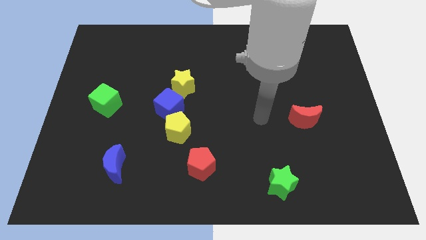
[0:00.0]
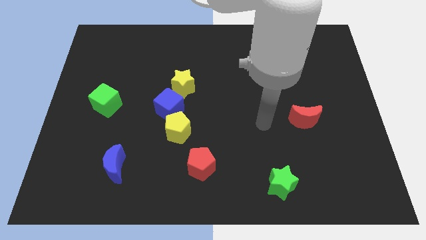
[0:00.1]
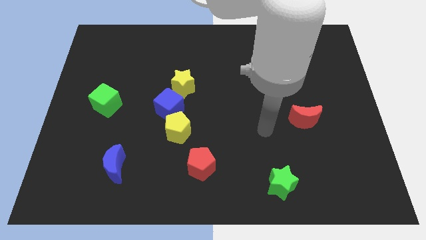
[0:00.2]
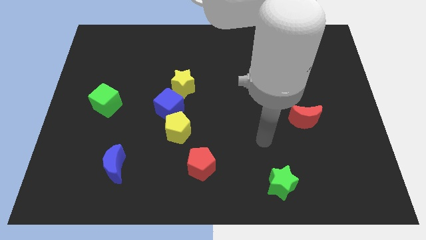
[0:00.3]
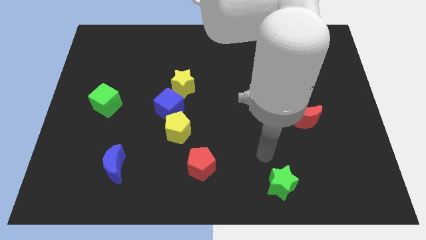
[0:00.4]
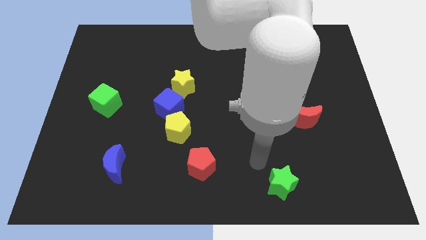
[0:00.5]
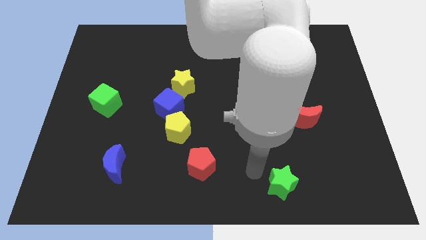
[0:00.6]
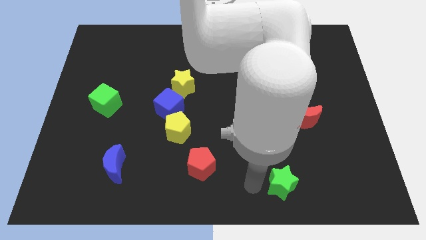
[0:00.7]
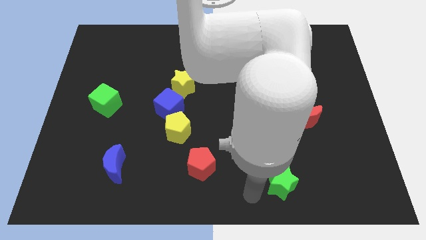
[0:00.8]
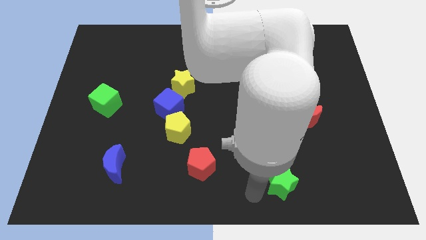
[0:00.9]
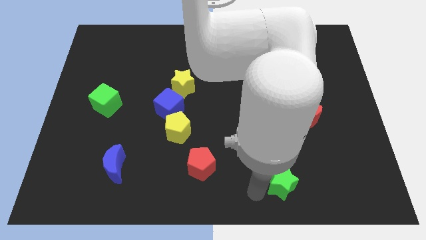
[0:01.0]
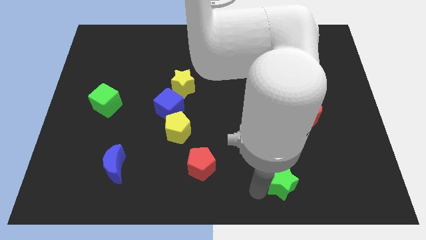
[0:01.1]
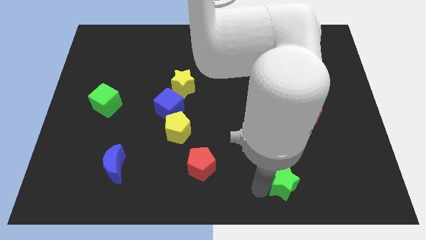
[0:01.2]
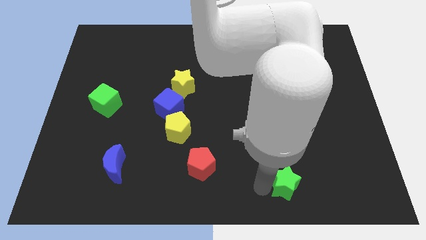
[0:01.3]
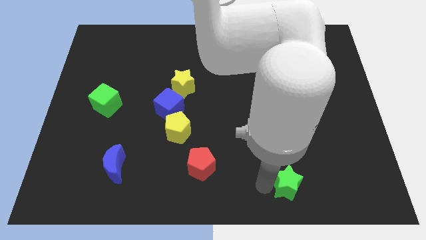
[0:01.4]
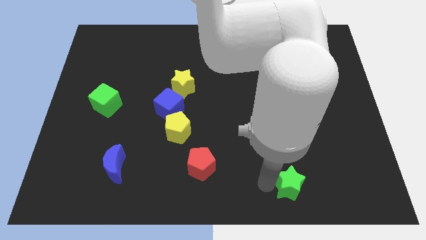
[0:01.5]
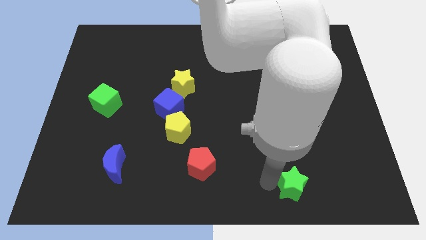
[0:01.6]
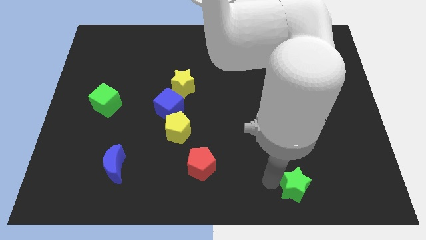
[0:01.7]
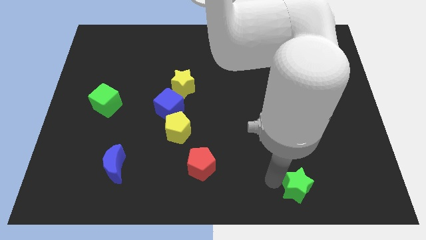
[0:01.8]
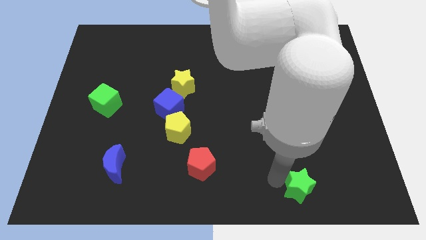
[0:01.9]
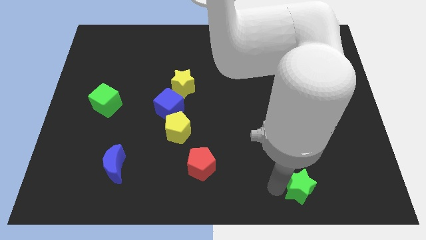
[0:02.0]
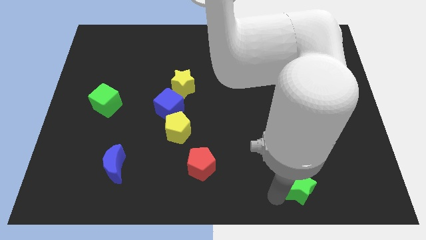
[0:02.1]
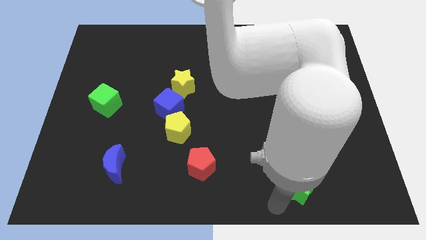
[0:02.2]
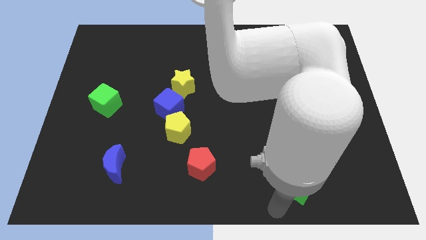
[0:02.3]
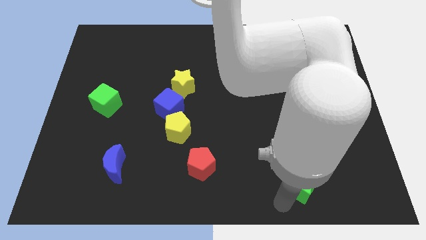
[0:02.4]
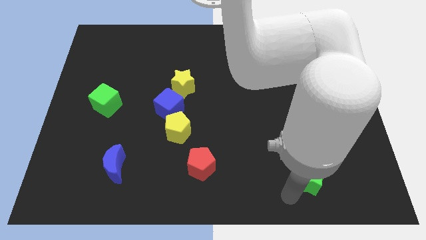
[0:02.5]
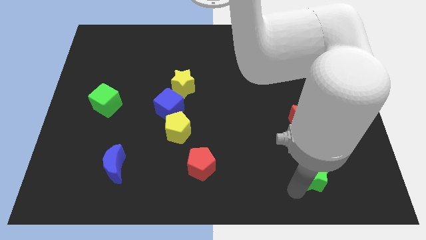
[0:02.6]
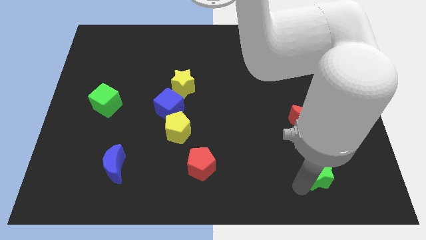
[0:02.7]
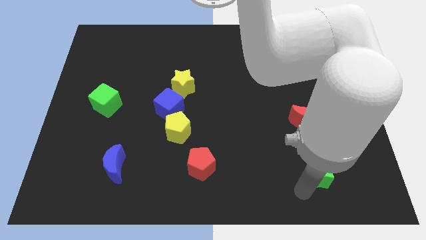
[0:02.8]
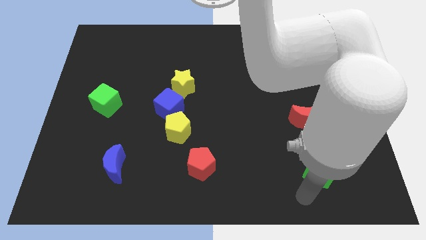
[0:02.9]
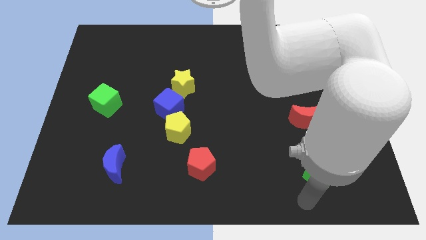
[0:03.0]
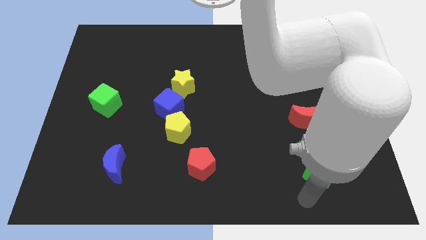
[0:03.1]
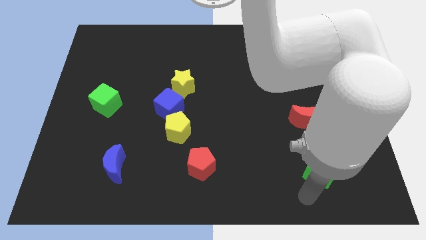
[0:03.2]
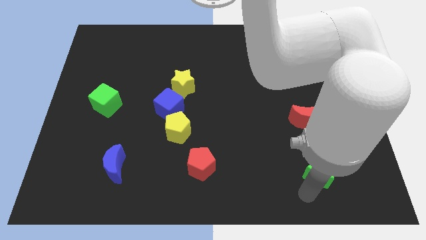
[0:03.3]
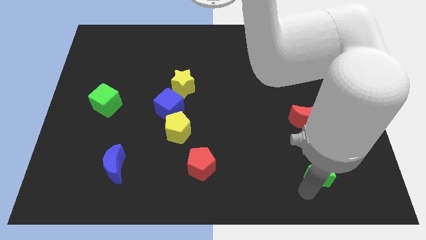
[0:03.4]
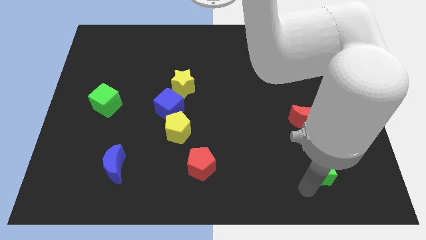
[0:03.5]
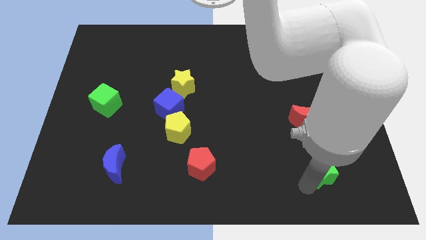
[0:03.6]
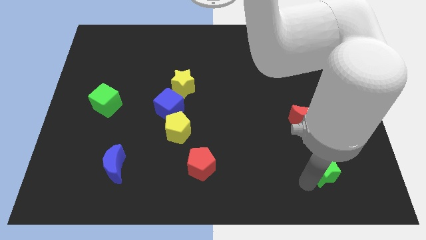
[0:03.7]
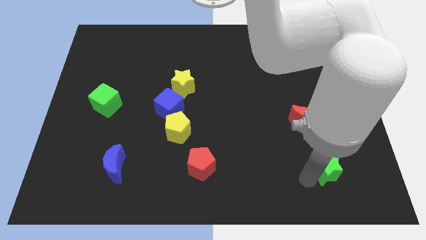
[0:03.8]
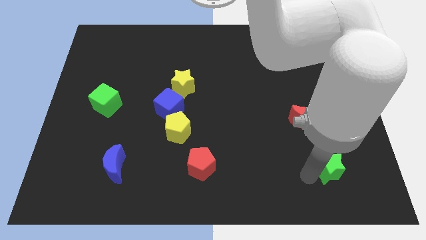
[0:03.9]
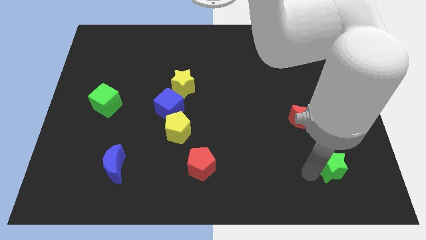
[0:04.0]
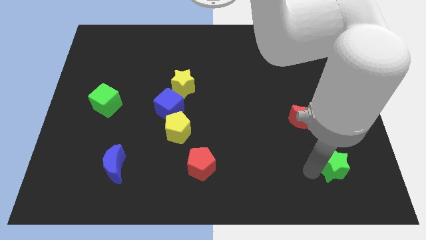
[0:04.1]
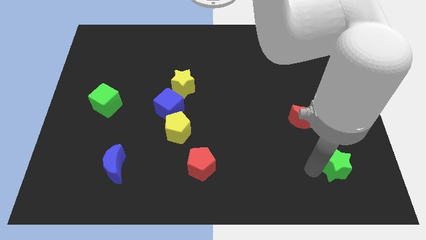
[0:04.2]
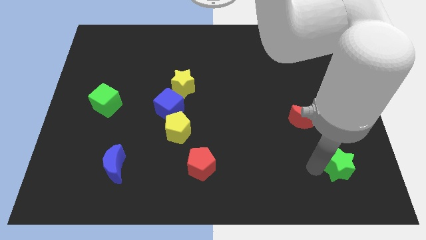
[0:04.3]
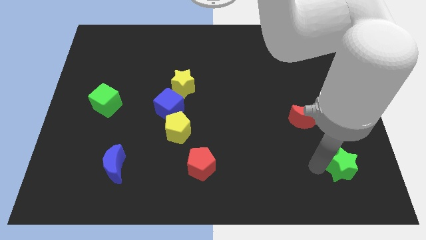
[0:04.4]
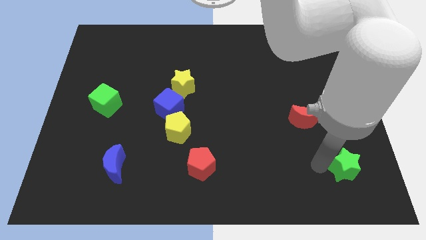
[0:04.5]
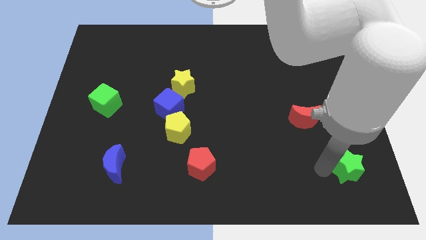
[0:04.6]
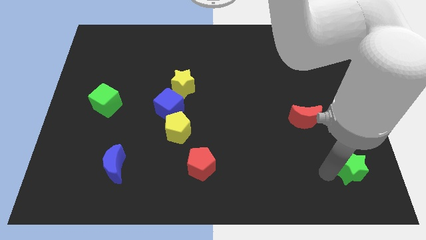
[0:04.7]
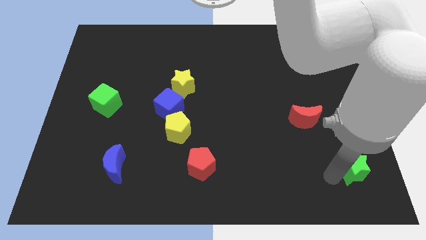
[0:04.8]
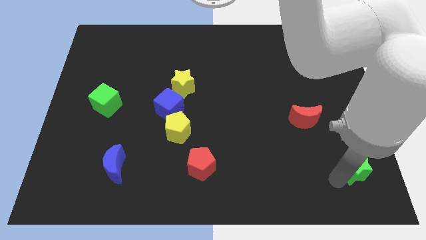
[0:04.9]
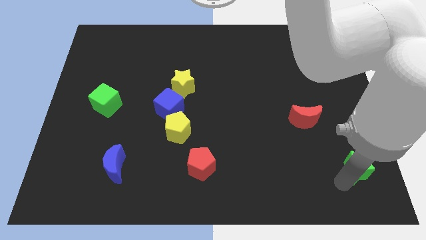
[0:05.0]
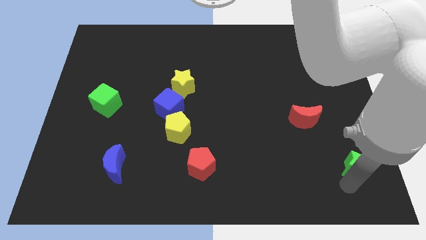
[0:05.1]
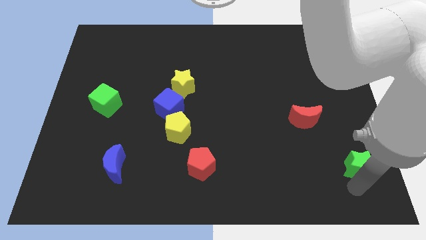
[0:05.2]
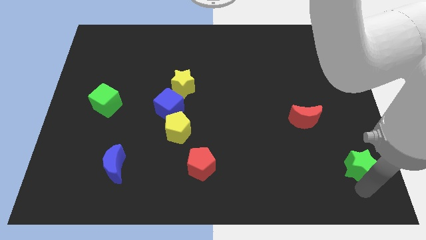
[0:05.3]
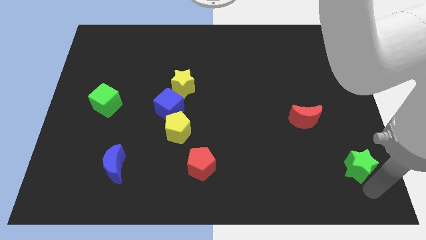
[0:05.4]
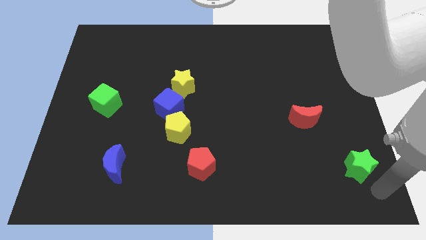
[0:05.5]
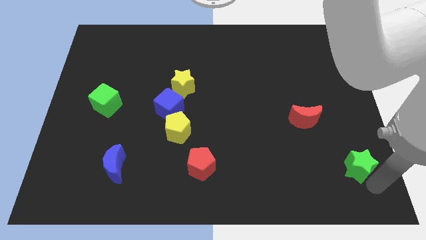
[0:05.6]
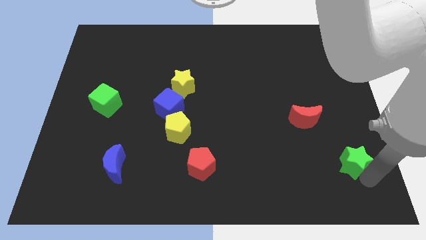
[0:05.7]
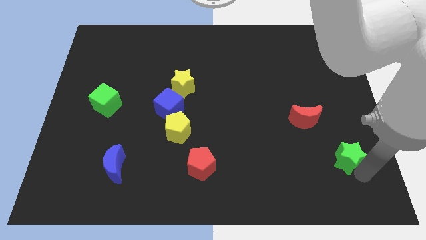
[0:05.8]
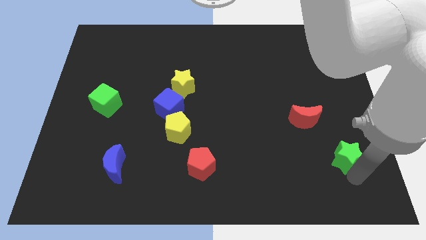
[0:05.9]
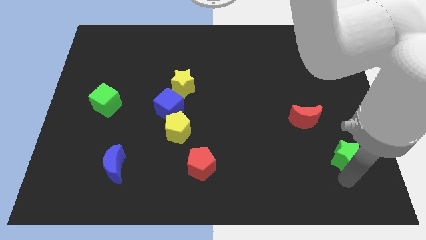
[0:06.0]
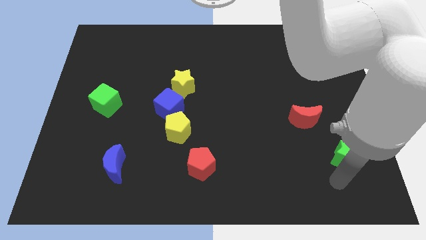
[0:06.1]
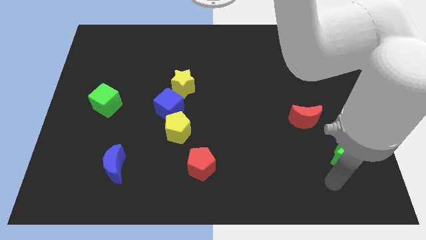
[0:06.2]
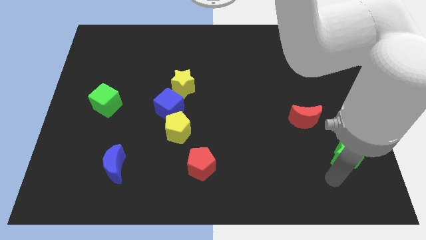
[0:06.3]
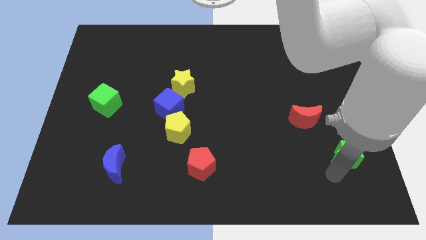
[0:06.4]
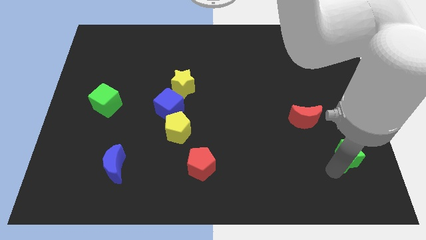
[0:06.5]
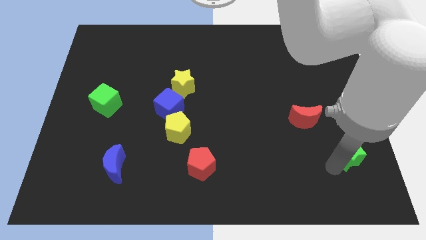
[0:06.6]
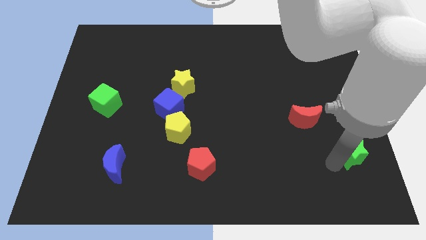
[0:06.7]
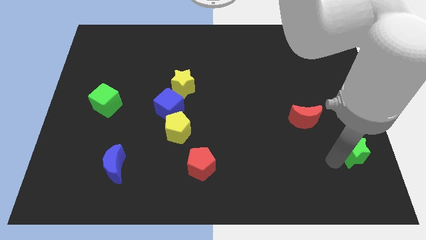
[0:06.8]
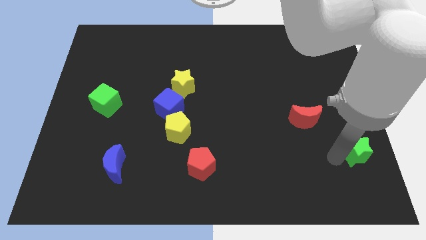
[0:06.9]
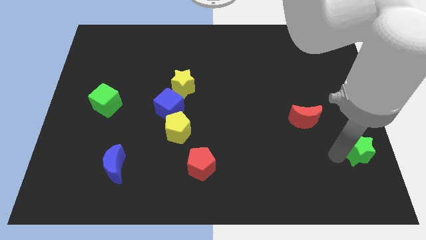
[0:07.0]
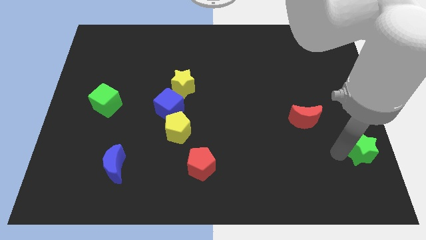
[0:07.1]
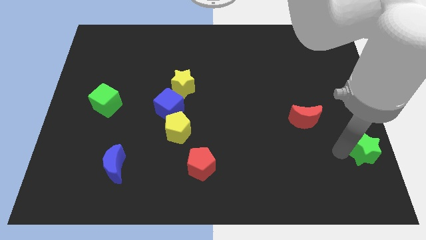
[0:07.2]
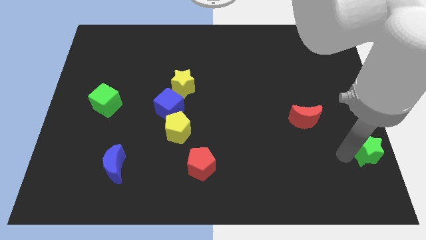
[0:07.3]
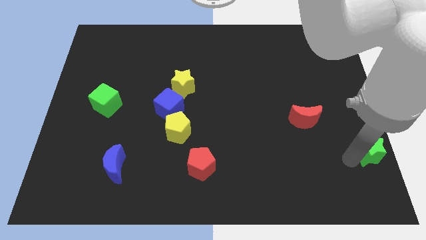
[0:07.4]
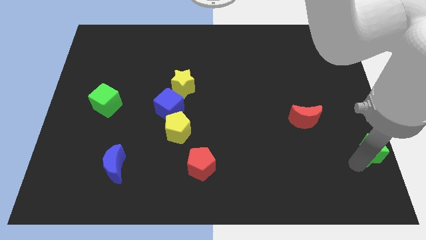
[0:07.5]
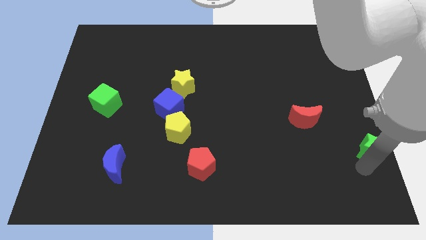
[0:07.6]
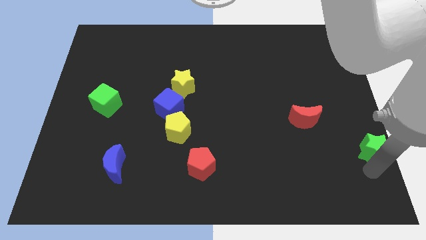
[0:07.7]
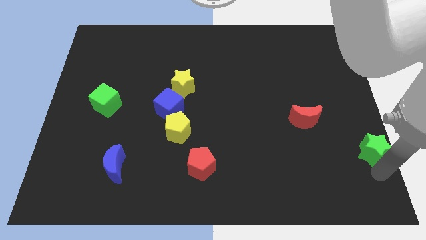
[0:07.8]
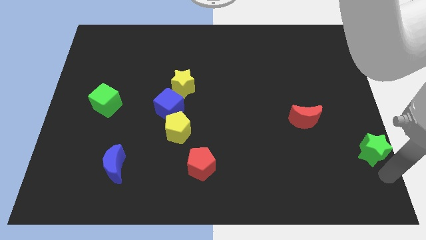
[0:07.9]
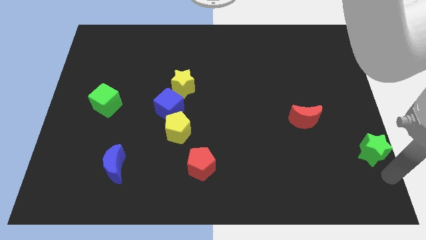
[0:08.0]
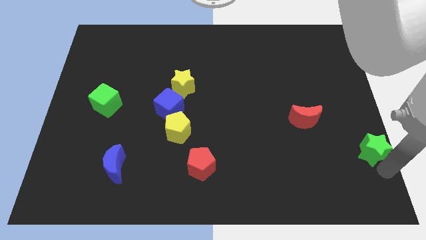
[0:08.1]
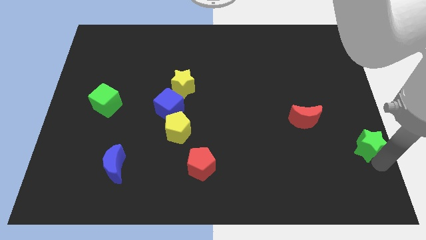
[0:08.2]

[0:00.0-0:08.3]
put the green star to the center right
